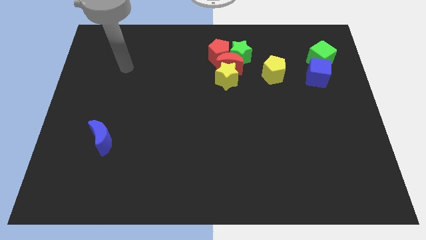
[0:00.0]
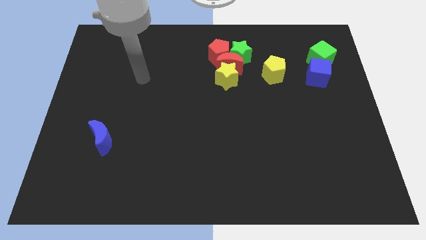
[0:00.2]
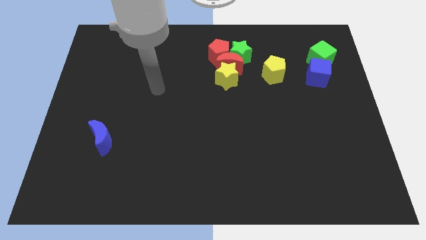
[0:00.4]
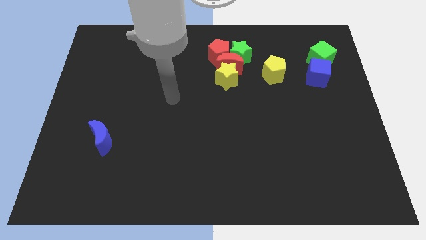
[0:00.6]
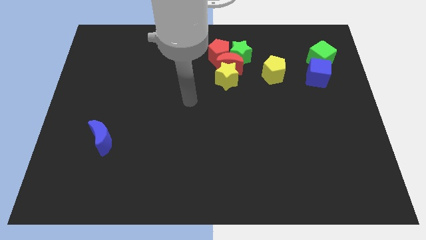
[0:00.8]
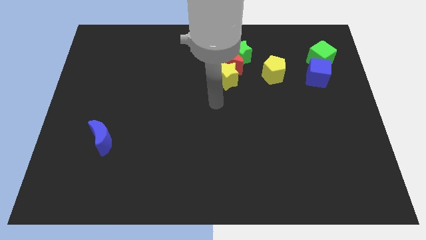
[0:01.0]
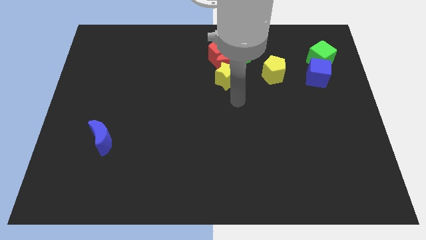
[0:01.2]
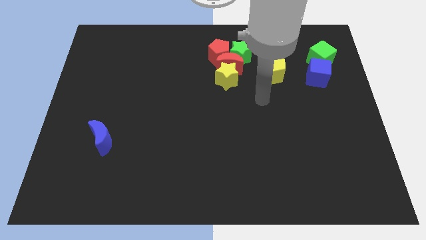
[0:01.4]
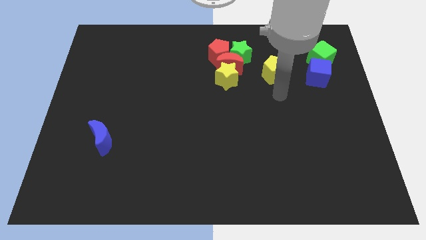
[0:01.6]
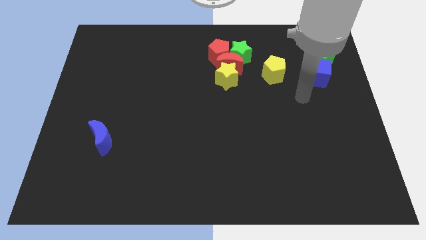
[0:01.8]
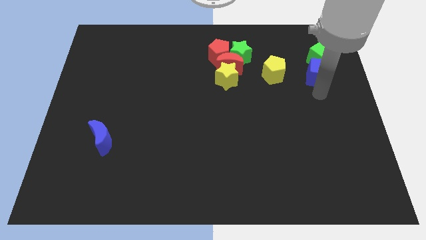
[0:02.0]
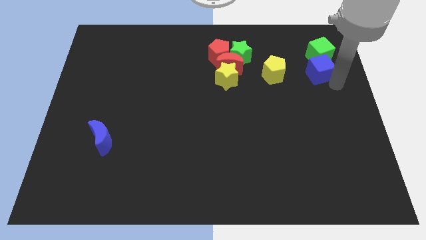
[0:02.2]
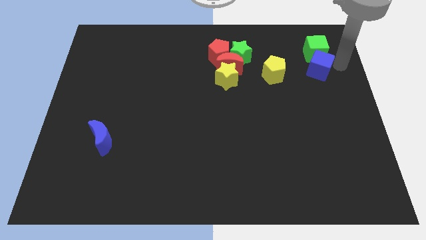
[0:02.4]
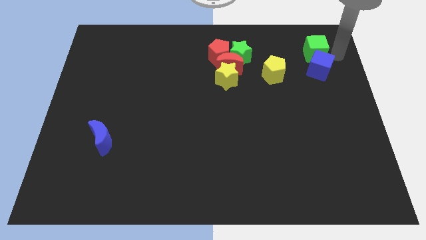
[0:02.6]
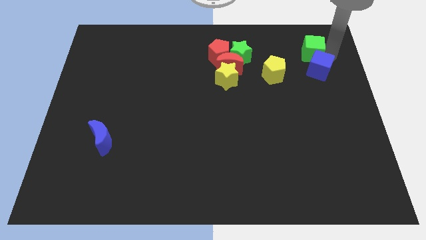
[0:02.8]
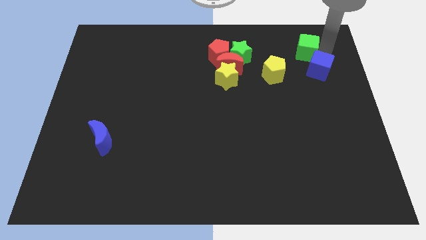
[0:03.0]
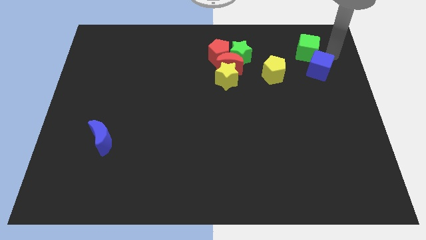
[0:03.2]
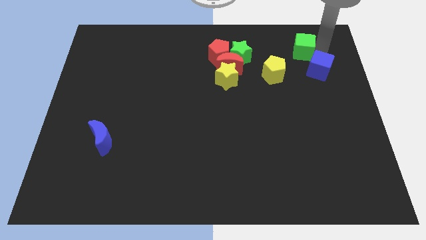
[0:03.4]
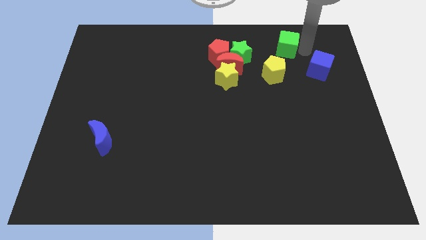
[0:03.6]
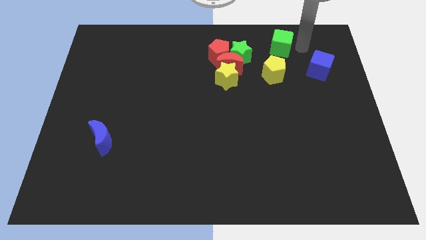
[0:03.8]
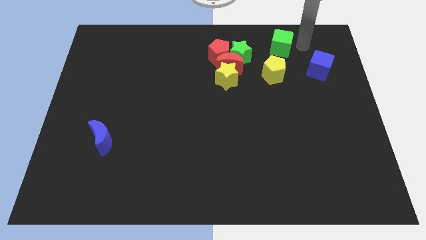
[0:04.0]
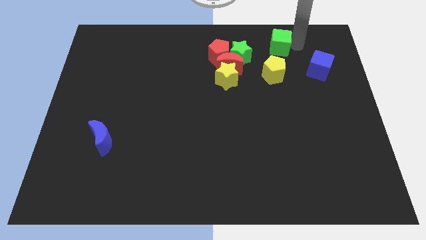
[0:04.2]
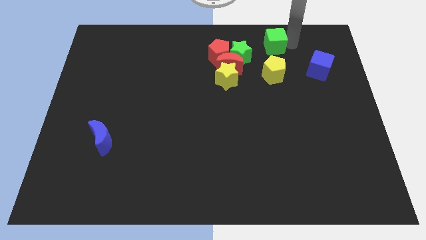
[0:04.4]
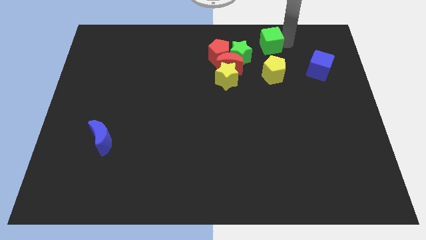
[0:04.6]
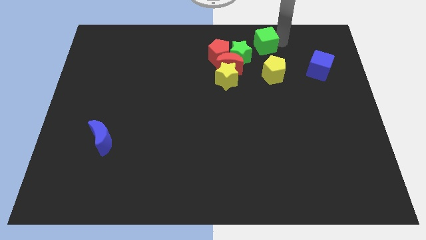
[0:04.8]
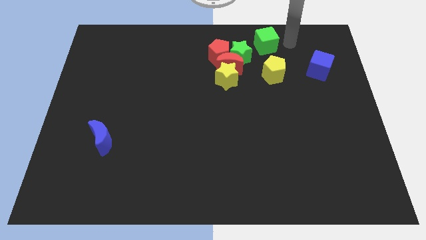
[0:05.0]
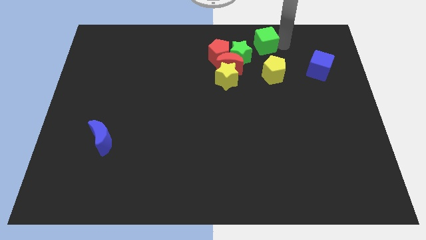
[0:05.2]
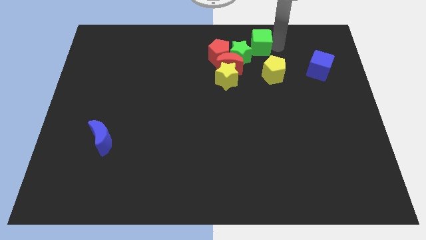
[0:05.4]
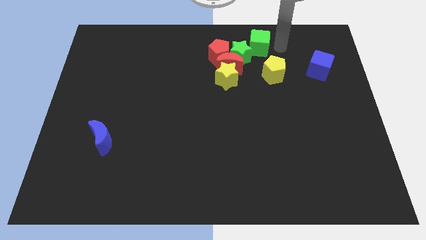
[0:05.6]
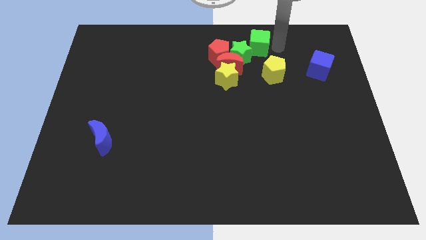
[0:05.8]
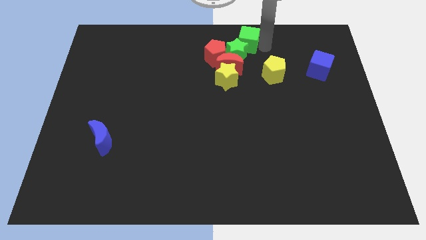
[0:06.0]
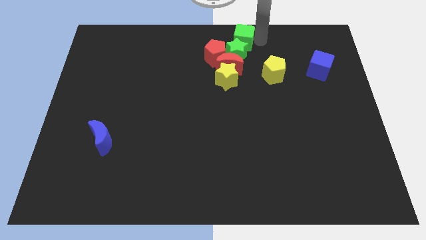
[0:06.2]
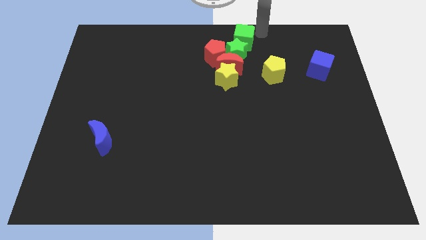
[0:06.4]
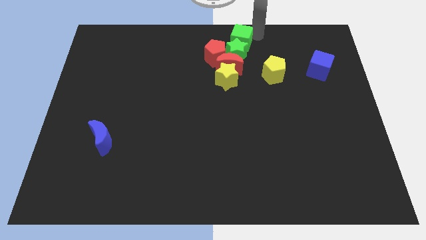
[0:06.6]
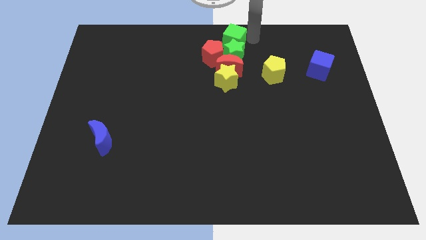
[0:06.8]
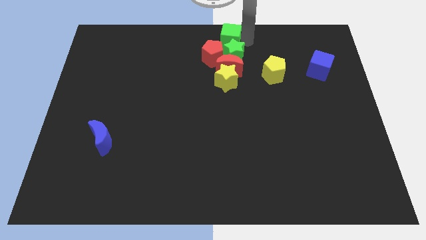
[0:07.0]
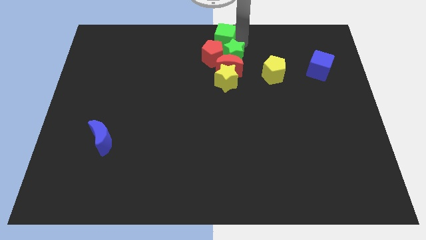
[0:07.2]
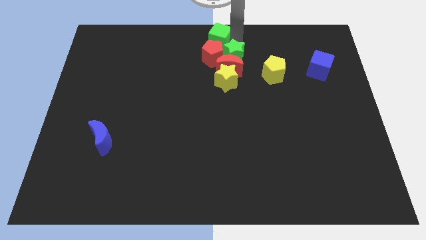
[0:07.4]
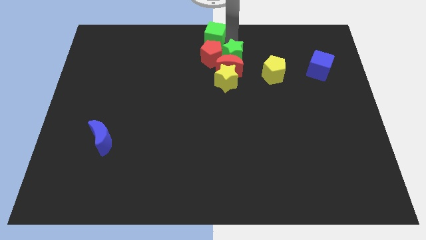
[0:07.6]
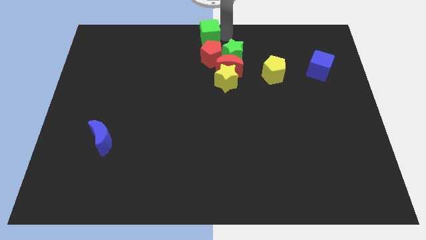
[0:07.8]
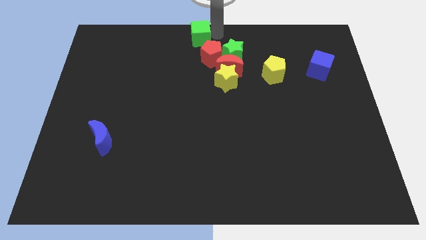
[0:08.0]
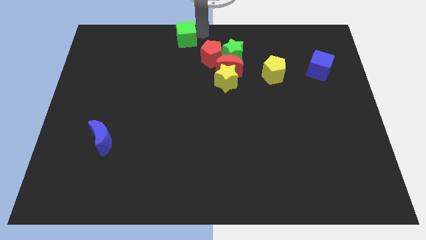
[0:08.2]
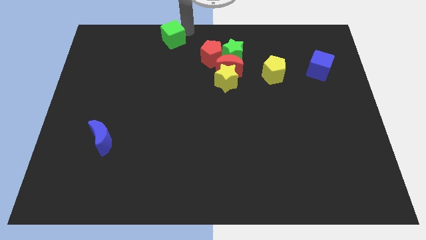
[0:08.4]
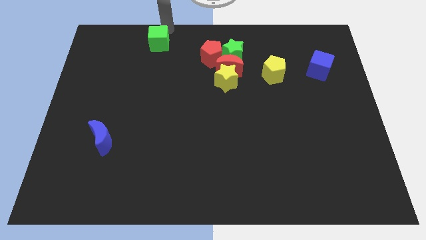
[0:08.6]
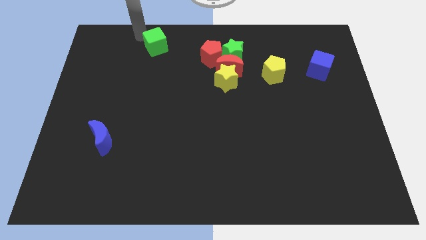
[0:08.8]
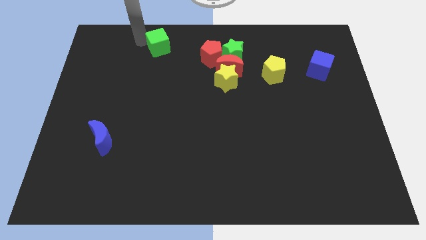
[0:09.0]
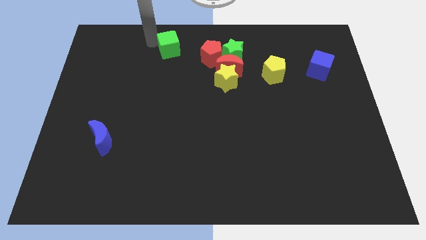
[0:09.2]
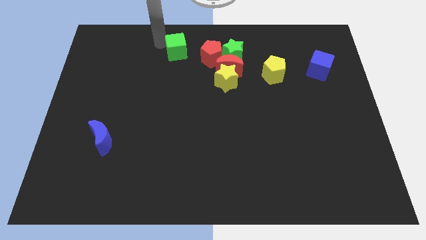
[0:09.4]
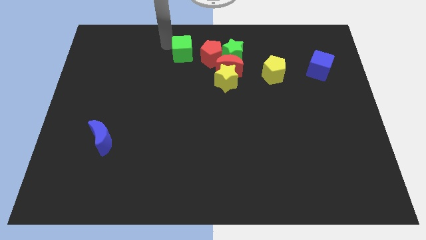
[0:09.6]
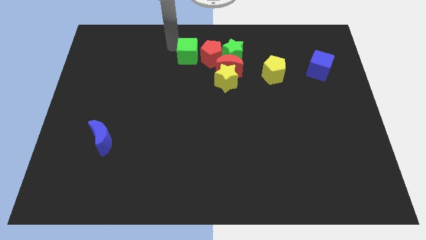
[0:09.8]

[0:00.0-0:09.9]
move the green cube to the red pentagon

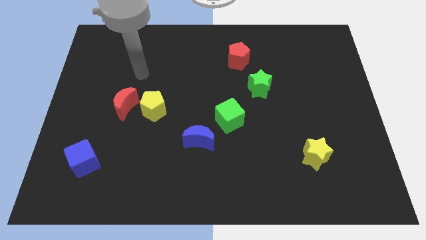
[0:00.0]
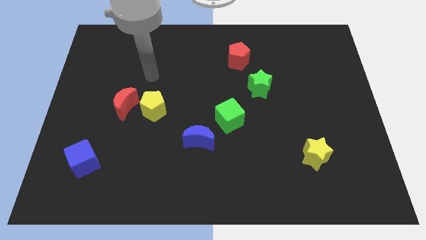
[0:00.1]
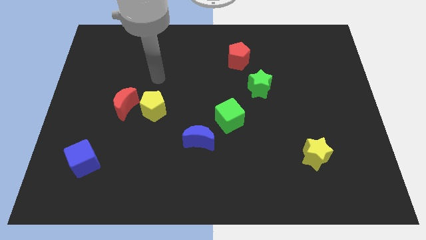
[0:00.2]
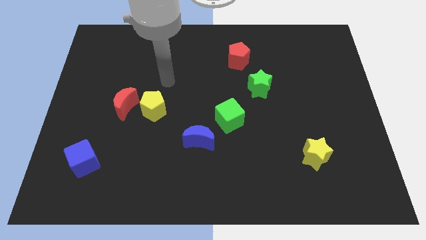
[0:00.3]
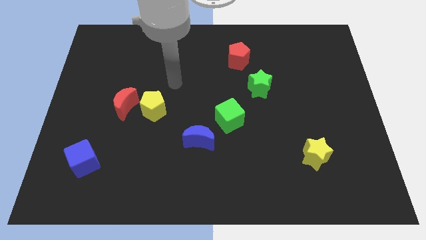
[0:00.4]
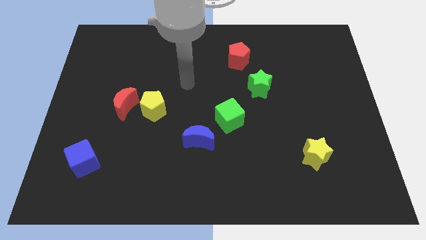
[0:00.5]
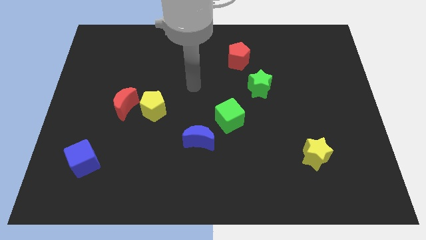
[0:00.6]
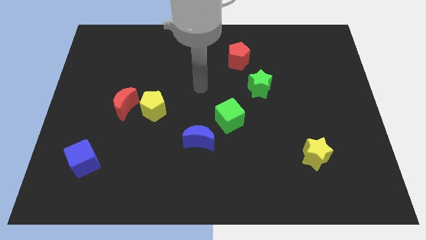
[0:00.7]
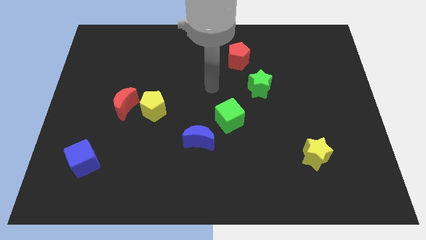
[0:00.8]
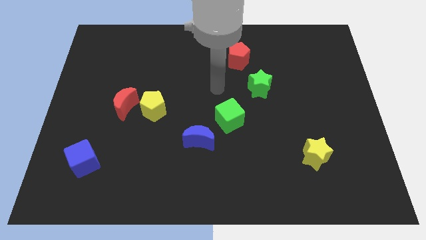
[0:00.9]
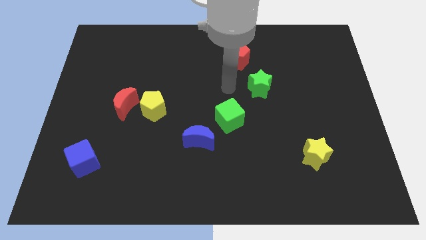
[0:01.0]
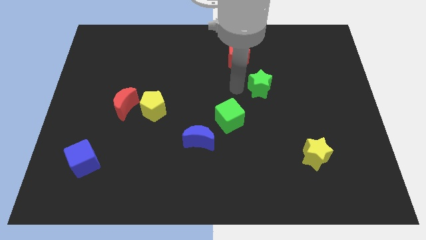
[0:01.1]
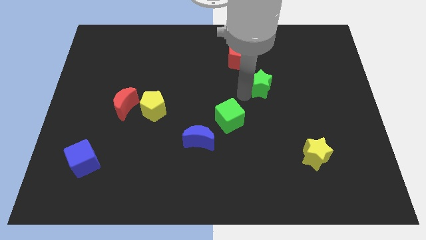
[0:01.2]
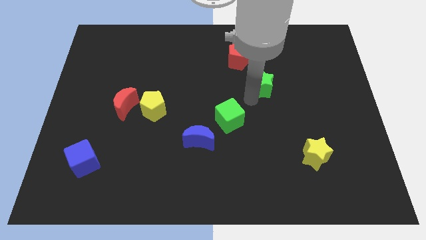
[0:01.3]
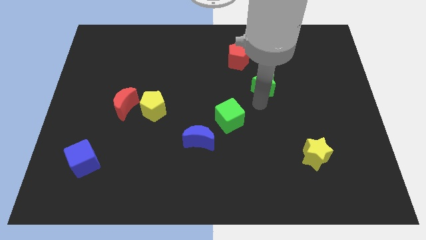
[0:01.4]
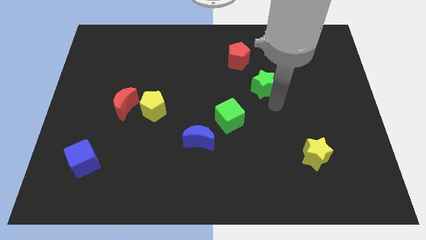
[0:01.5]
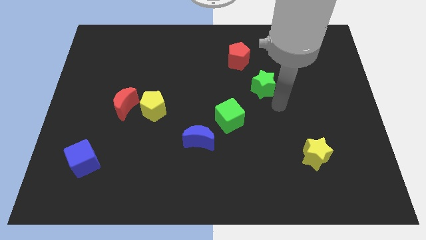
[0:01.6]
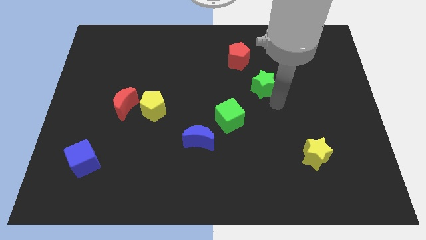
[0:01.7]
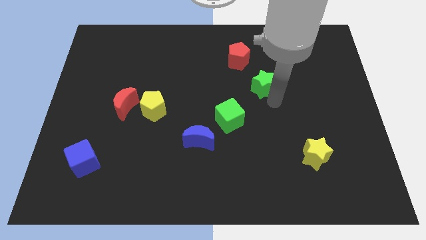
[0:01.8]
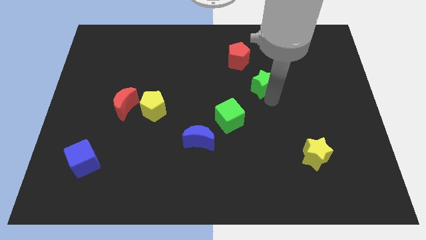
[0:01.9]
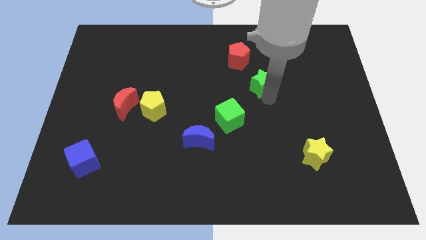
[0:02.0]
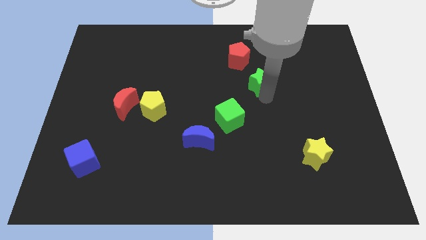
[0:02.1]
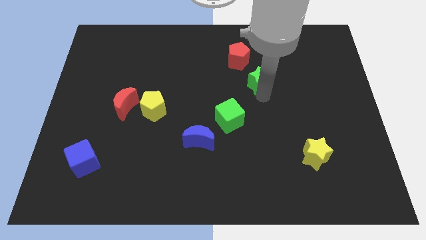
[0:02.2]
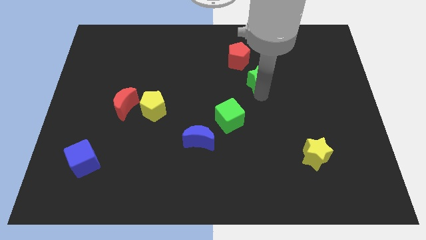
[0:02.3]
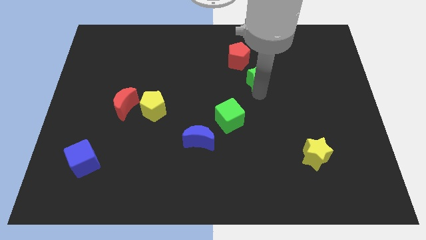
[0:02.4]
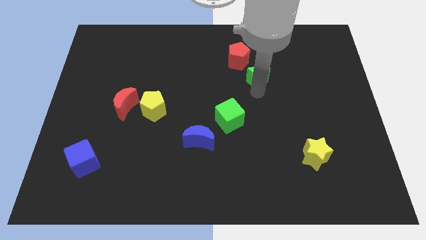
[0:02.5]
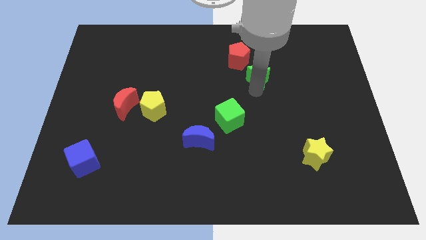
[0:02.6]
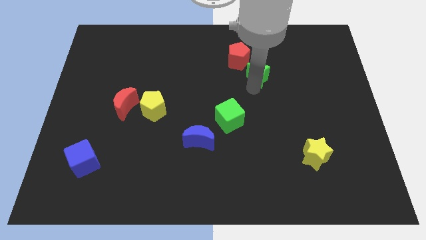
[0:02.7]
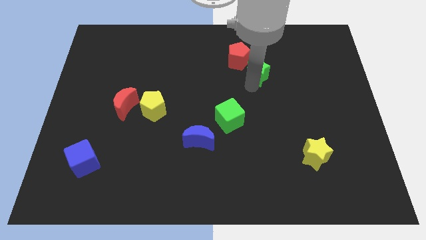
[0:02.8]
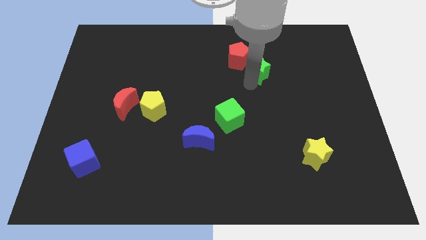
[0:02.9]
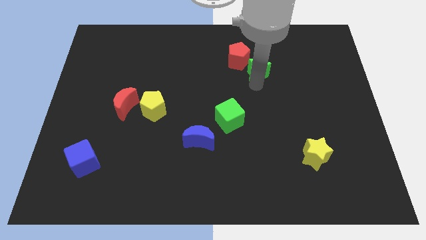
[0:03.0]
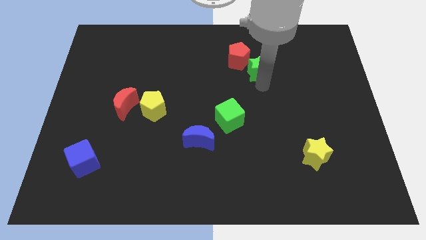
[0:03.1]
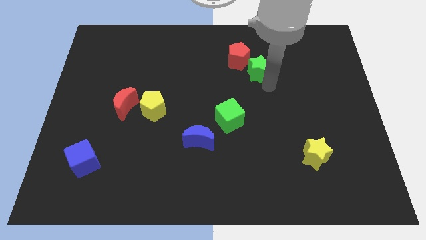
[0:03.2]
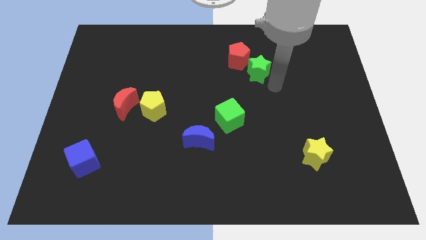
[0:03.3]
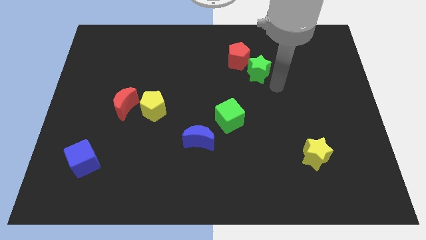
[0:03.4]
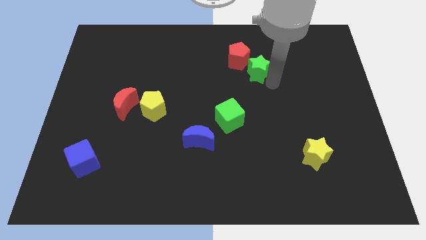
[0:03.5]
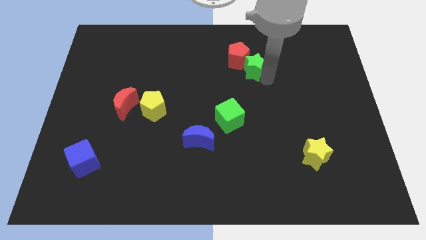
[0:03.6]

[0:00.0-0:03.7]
put the green star close to the red pentagon
